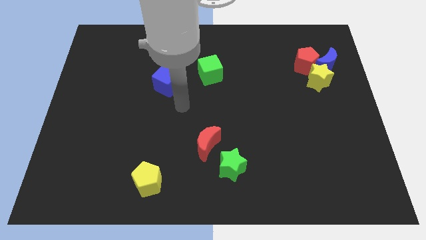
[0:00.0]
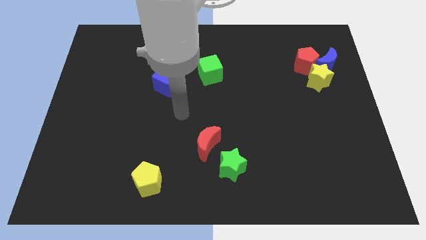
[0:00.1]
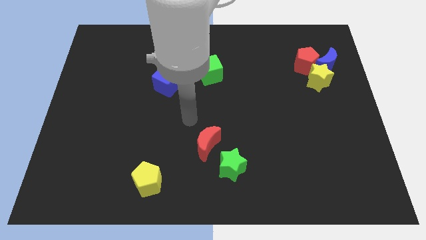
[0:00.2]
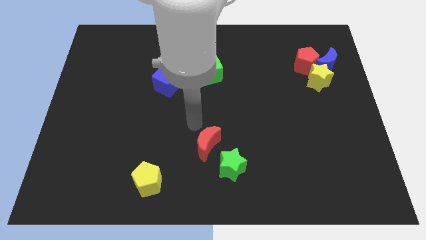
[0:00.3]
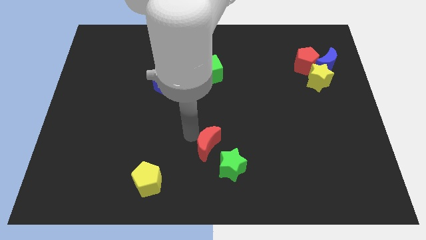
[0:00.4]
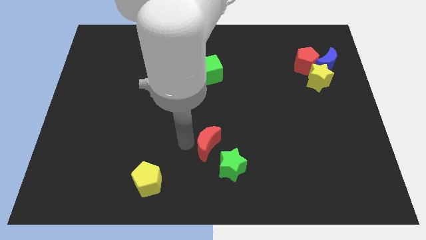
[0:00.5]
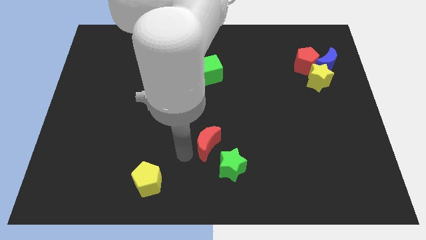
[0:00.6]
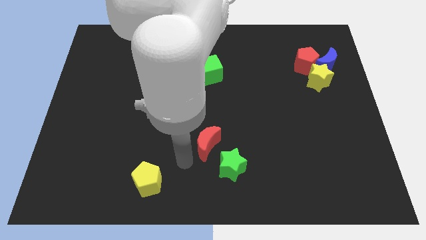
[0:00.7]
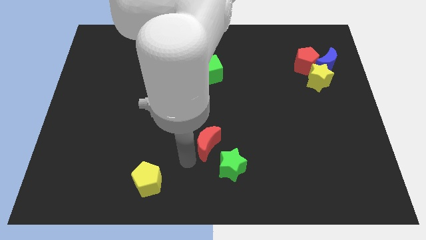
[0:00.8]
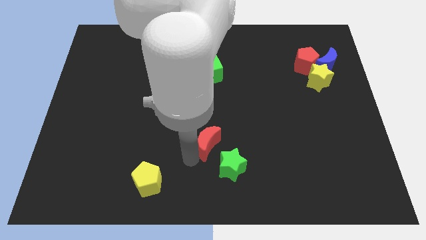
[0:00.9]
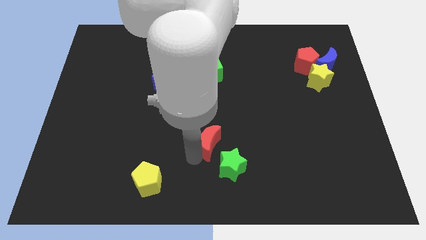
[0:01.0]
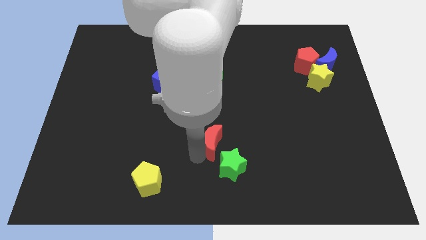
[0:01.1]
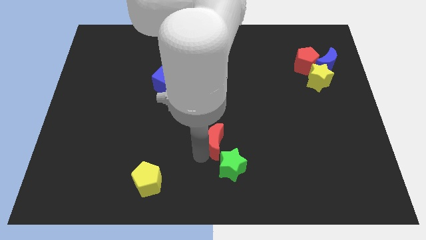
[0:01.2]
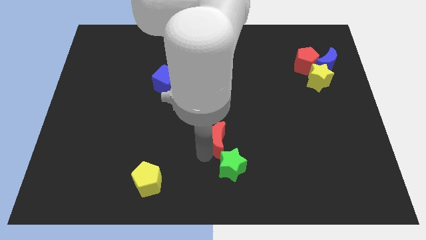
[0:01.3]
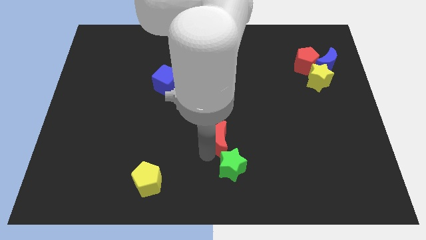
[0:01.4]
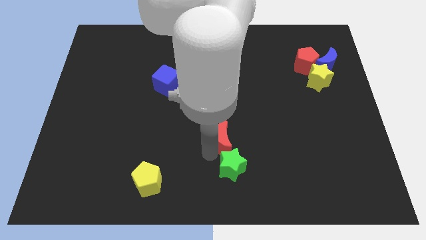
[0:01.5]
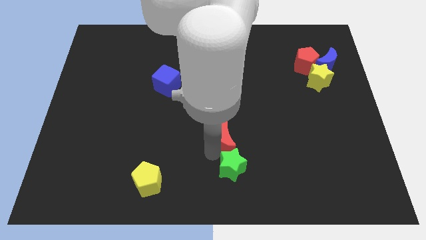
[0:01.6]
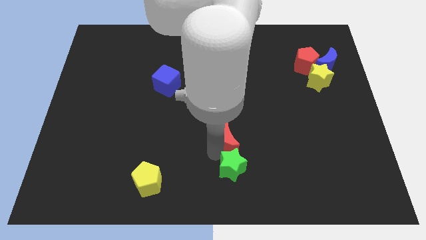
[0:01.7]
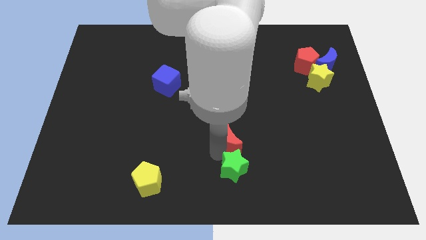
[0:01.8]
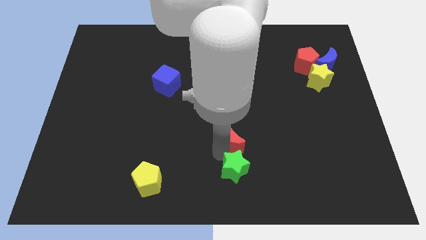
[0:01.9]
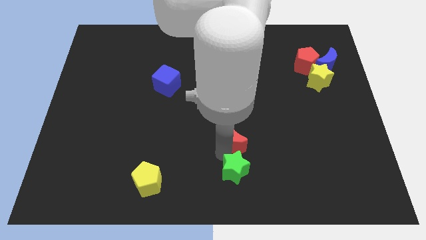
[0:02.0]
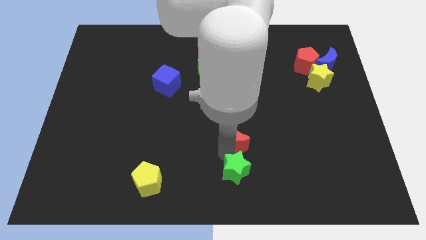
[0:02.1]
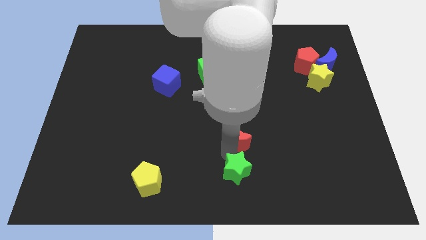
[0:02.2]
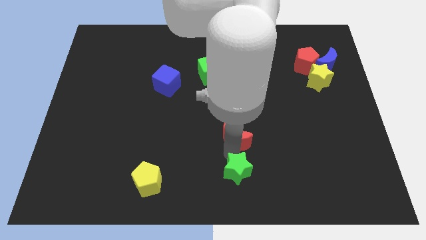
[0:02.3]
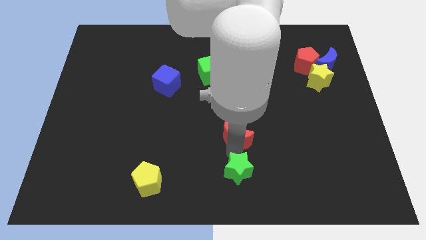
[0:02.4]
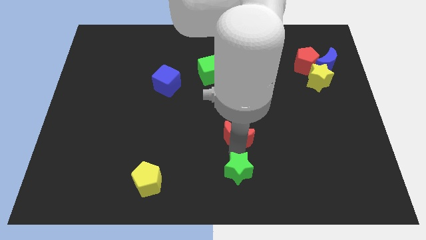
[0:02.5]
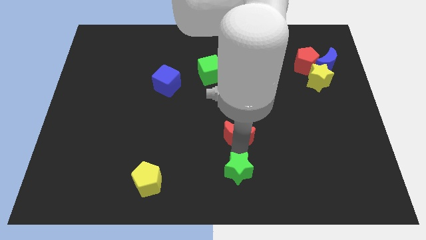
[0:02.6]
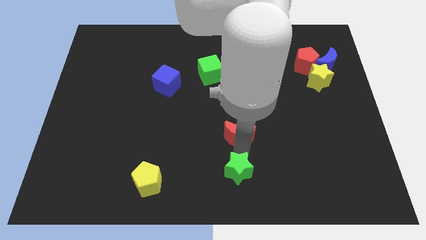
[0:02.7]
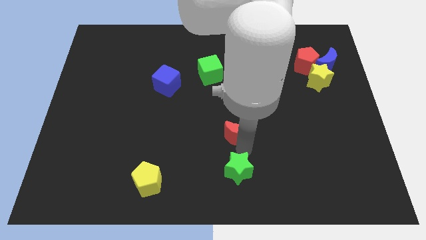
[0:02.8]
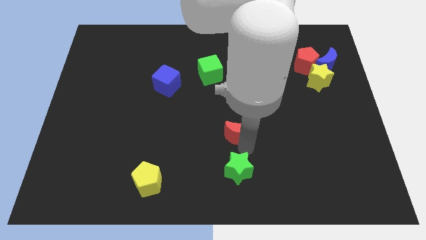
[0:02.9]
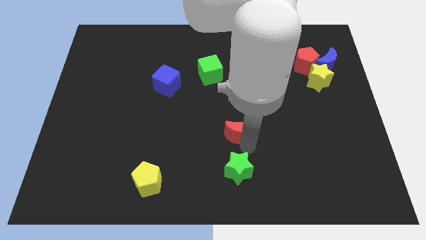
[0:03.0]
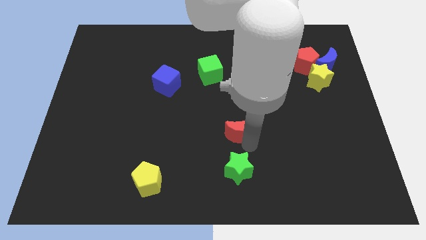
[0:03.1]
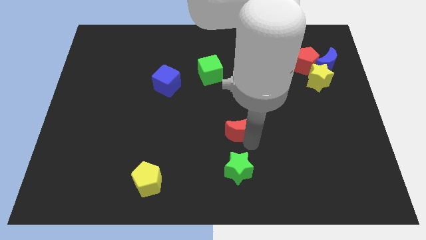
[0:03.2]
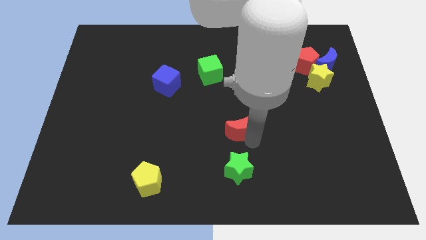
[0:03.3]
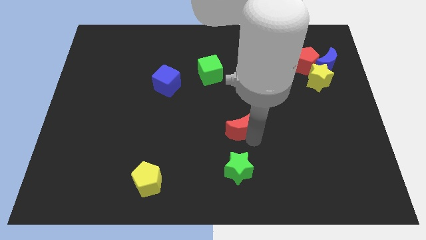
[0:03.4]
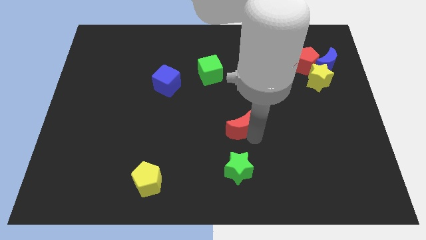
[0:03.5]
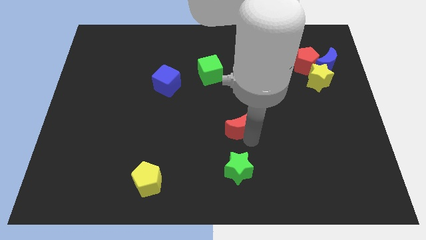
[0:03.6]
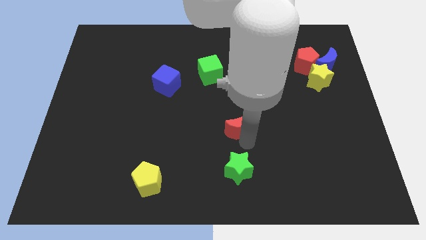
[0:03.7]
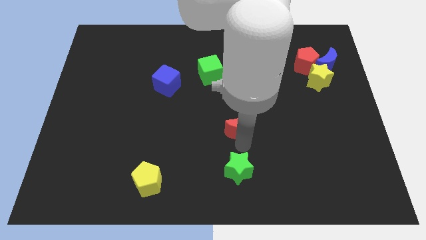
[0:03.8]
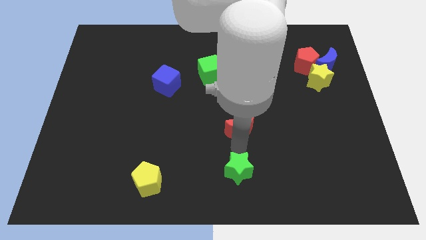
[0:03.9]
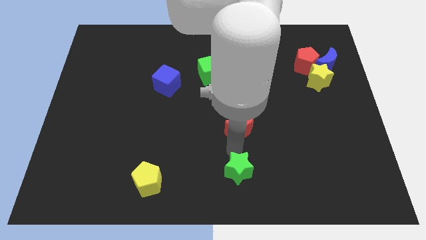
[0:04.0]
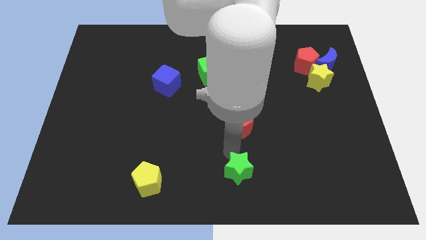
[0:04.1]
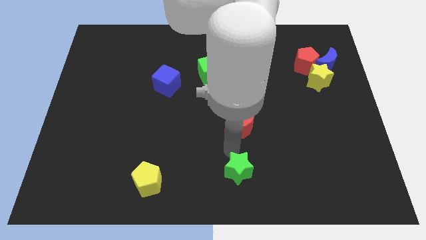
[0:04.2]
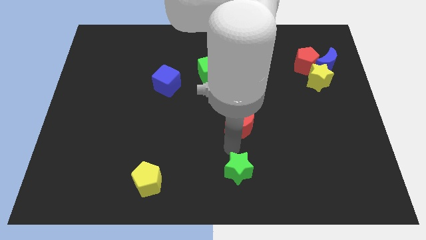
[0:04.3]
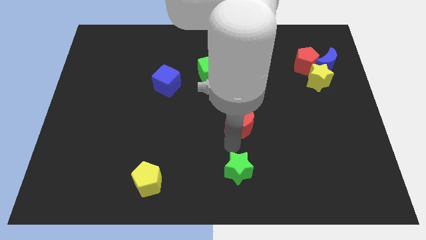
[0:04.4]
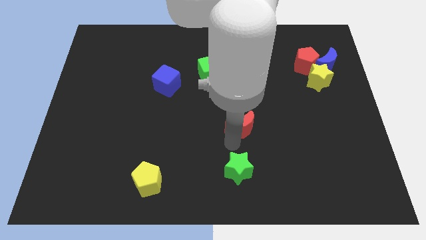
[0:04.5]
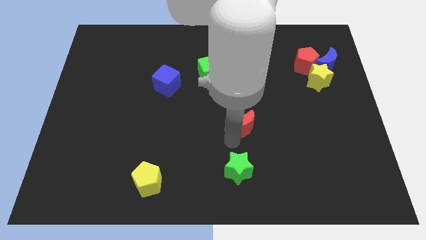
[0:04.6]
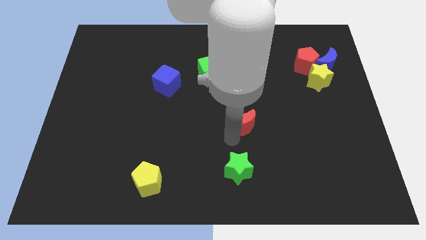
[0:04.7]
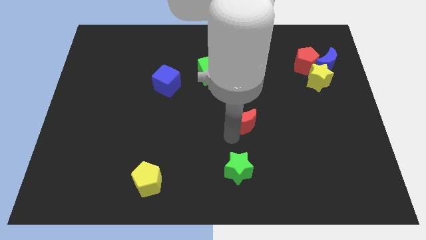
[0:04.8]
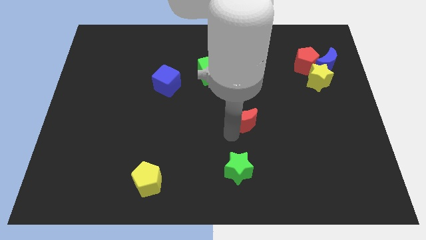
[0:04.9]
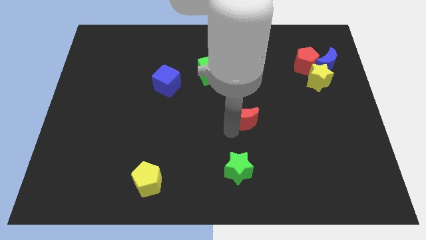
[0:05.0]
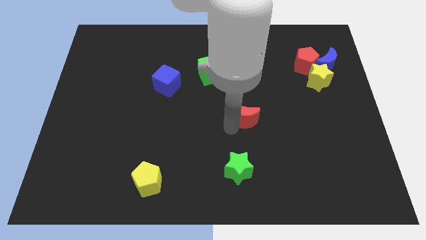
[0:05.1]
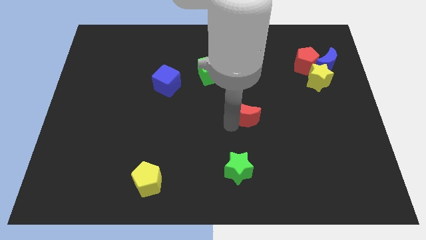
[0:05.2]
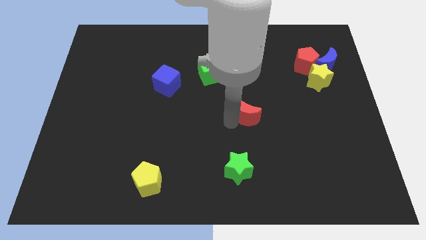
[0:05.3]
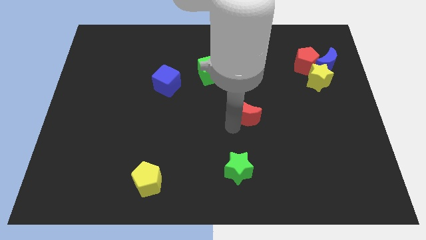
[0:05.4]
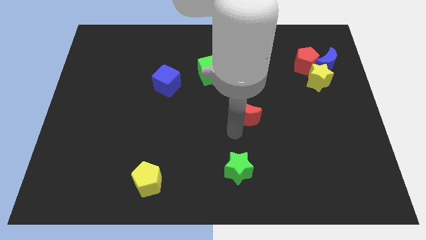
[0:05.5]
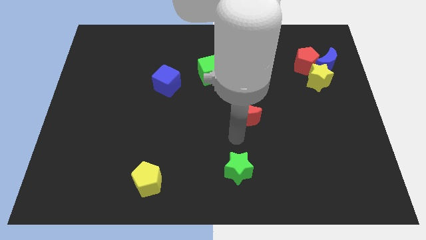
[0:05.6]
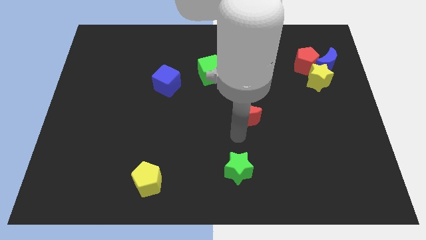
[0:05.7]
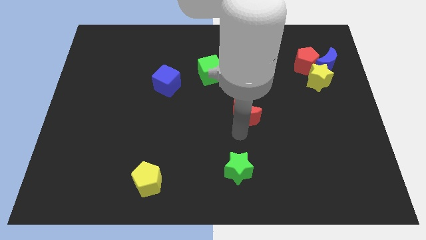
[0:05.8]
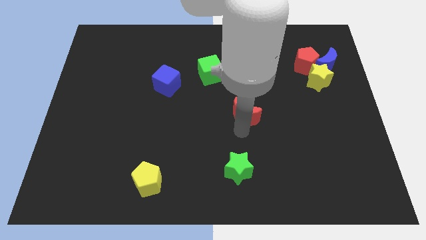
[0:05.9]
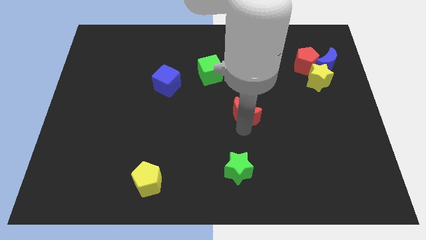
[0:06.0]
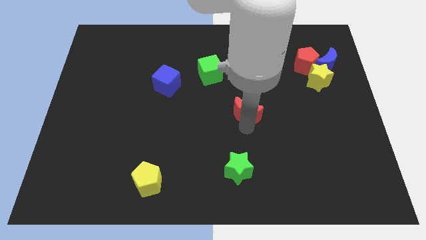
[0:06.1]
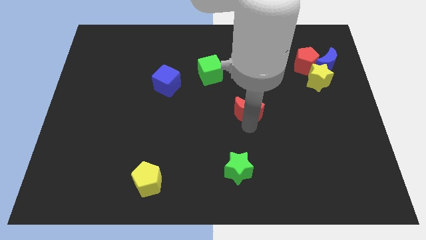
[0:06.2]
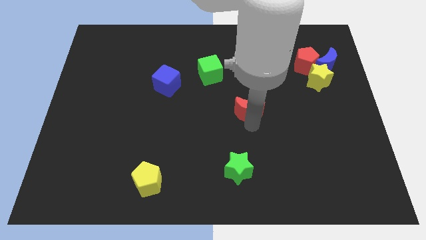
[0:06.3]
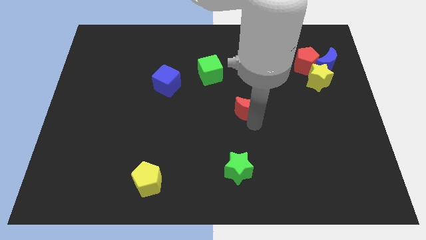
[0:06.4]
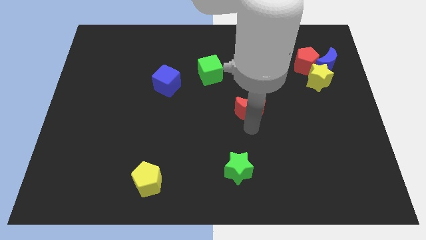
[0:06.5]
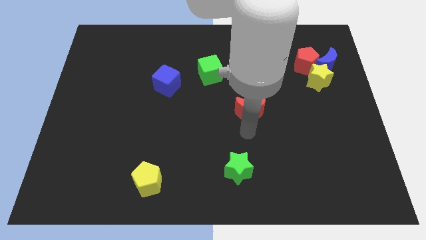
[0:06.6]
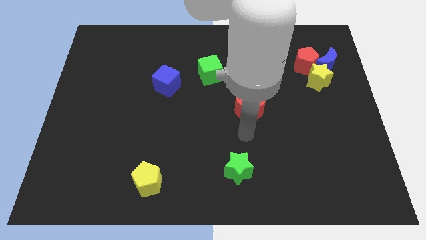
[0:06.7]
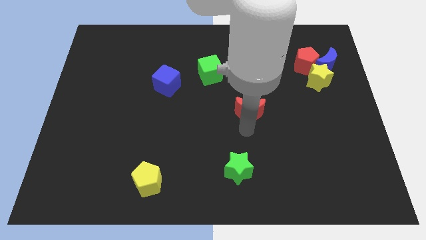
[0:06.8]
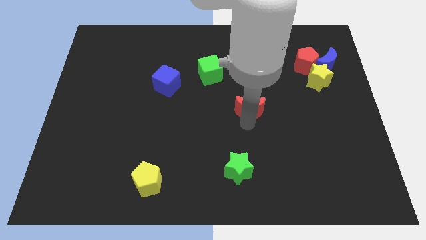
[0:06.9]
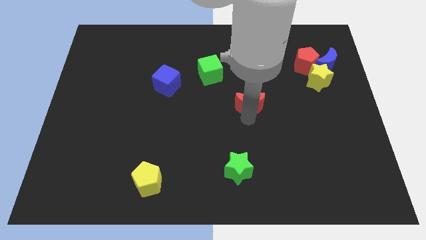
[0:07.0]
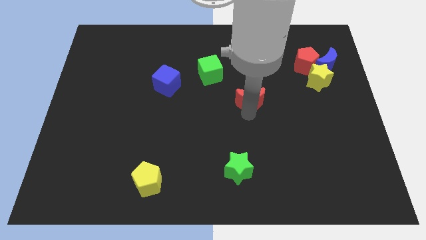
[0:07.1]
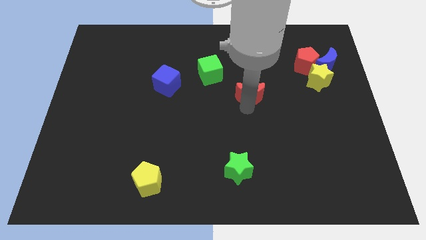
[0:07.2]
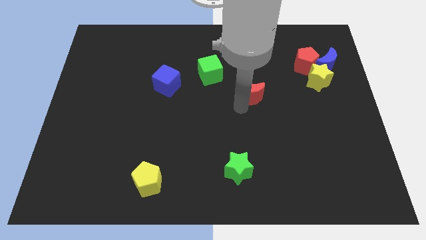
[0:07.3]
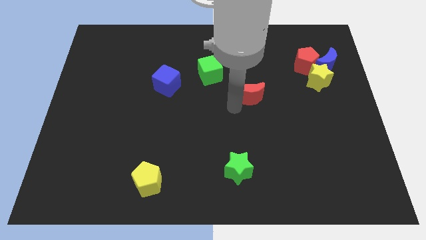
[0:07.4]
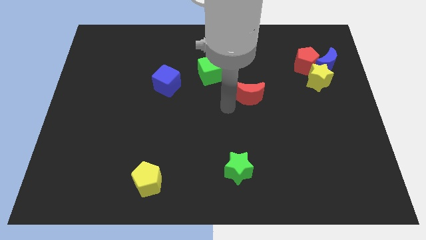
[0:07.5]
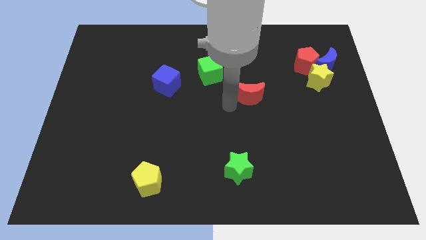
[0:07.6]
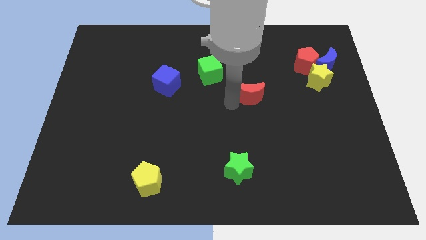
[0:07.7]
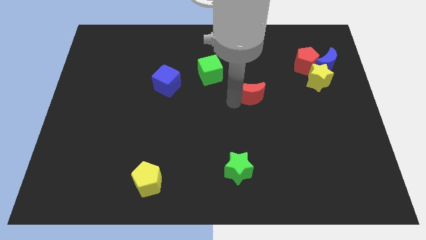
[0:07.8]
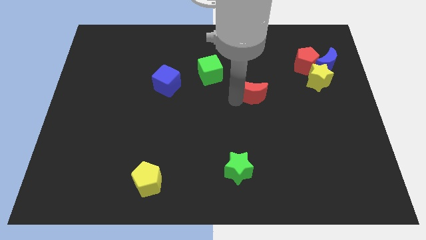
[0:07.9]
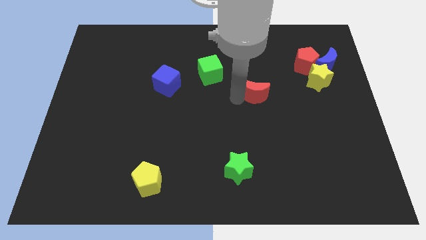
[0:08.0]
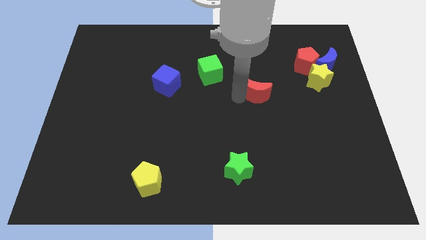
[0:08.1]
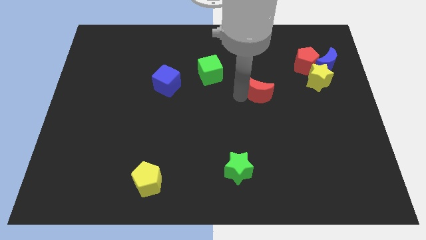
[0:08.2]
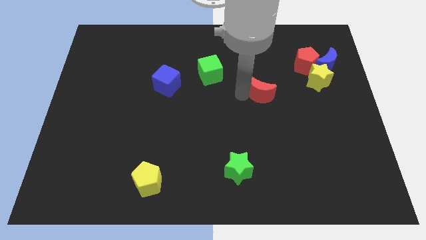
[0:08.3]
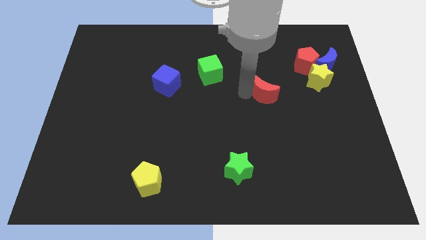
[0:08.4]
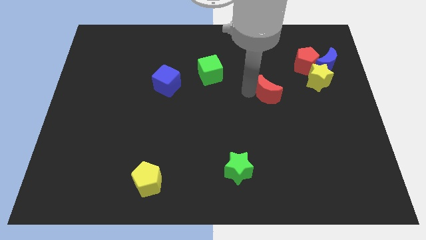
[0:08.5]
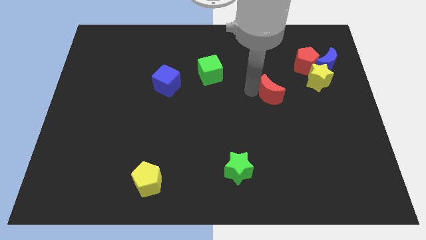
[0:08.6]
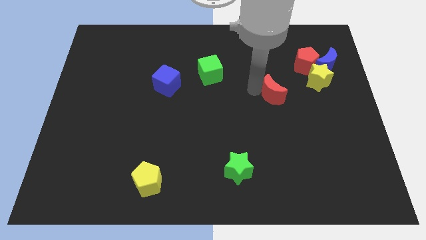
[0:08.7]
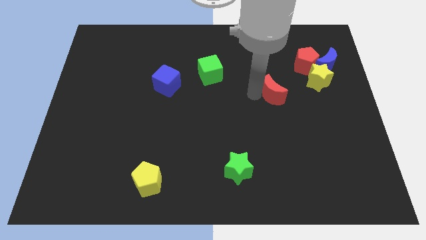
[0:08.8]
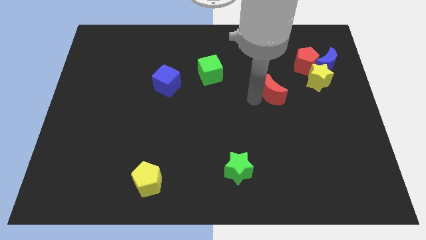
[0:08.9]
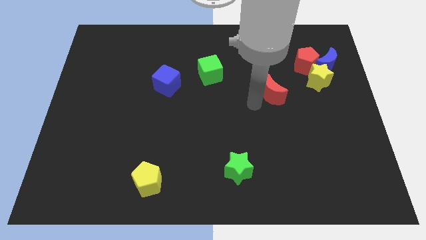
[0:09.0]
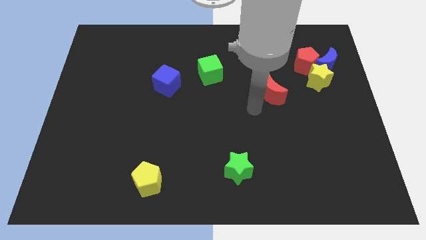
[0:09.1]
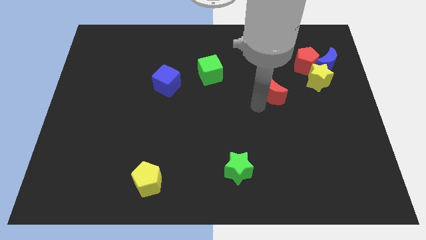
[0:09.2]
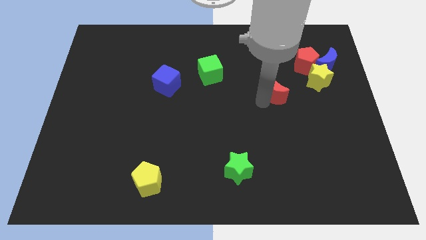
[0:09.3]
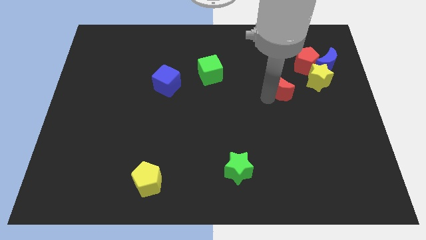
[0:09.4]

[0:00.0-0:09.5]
slide the red moon to the bottom left side of the red pentagon
